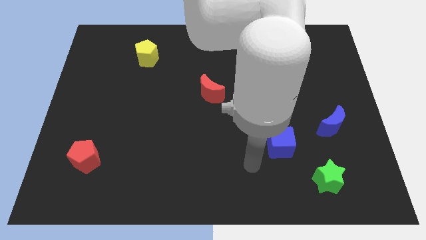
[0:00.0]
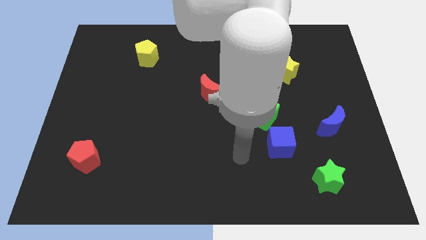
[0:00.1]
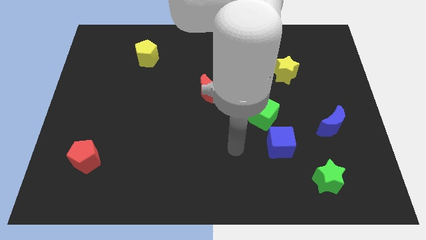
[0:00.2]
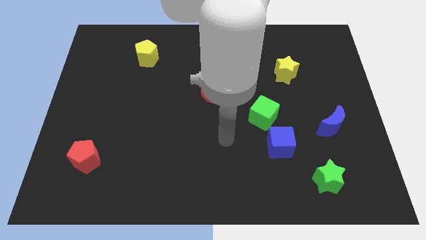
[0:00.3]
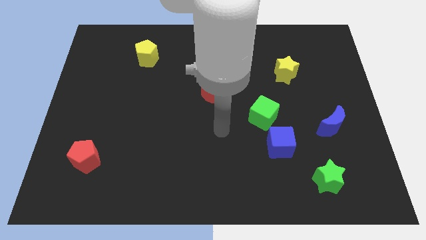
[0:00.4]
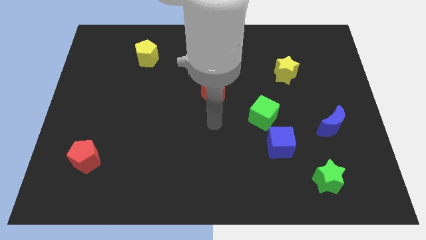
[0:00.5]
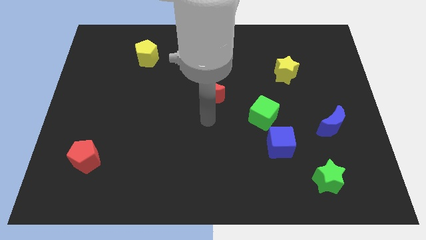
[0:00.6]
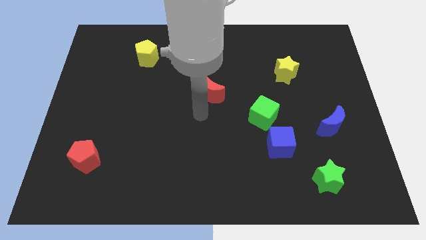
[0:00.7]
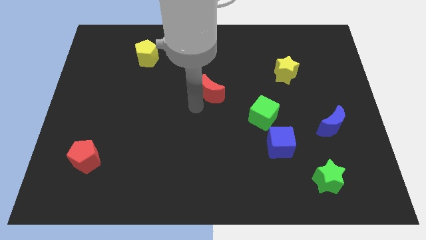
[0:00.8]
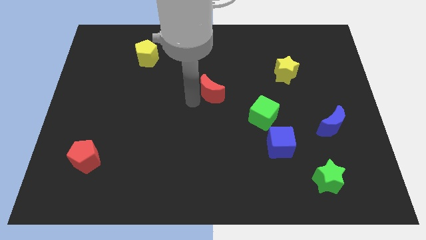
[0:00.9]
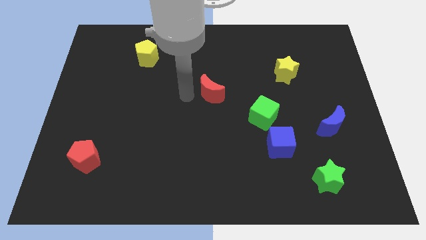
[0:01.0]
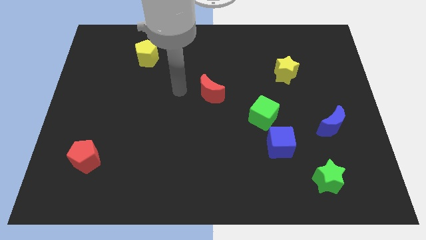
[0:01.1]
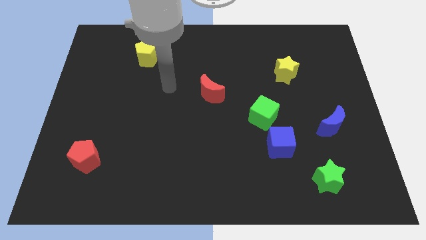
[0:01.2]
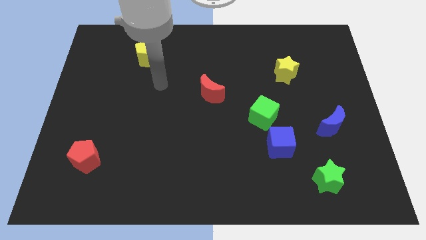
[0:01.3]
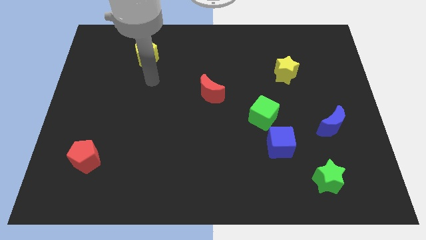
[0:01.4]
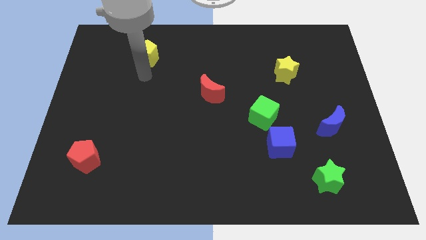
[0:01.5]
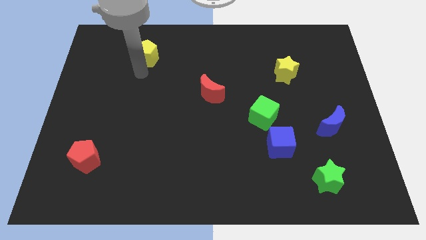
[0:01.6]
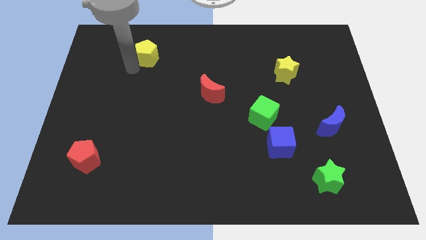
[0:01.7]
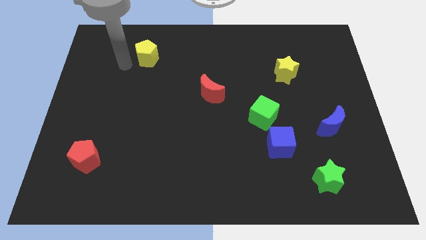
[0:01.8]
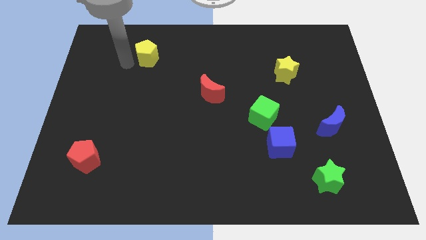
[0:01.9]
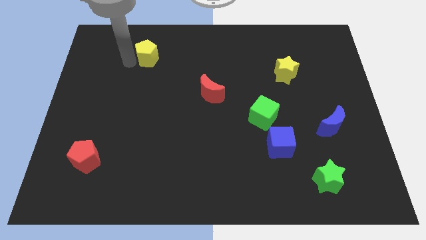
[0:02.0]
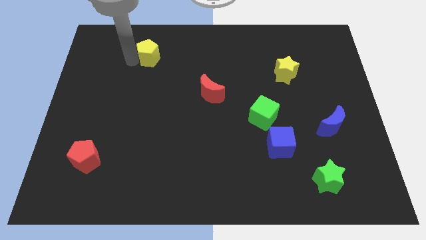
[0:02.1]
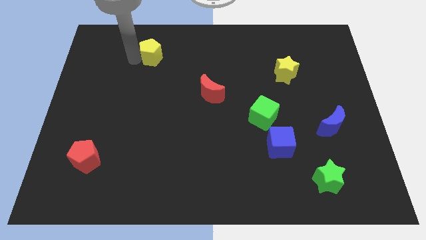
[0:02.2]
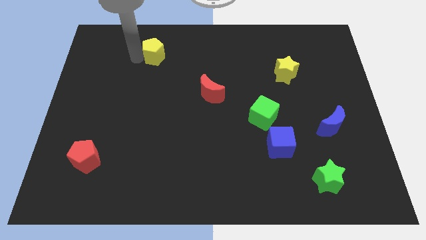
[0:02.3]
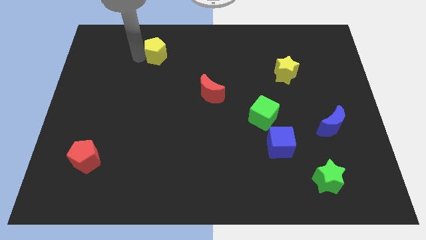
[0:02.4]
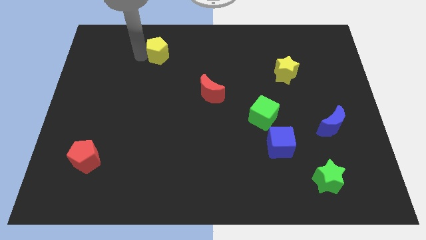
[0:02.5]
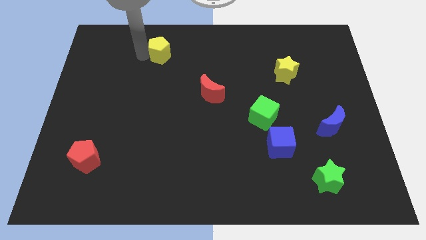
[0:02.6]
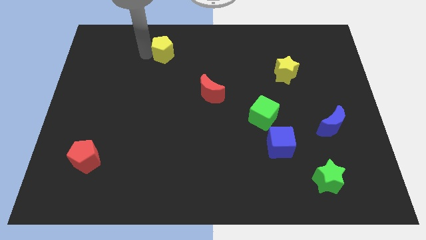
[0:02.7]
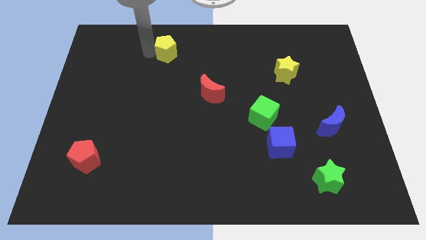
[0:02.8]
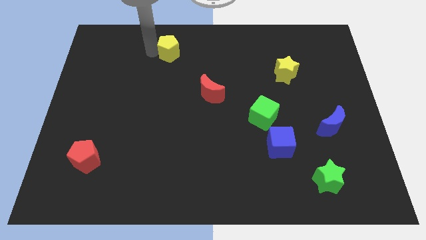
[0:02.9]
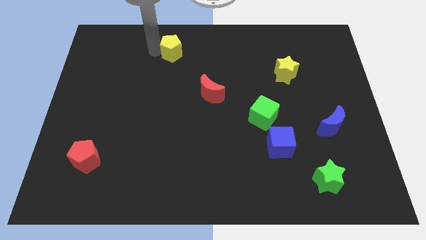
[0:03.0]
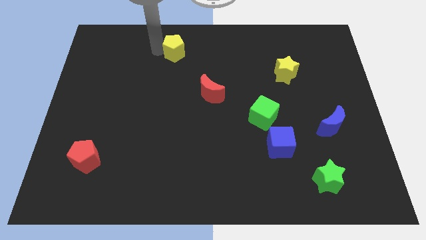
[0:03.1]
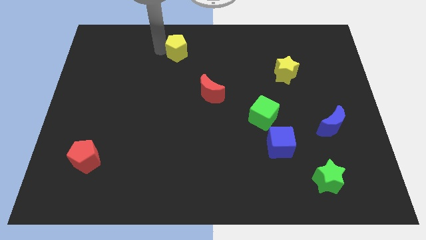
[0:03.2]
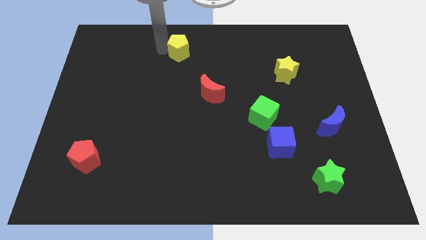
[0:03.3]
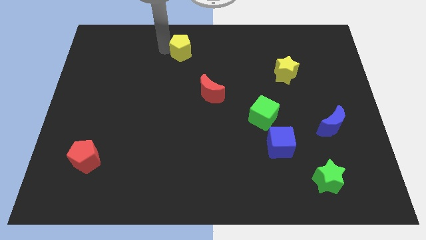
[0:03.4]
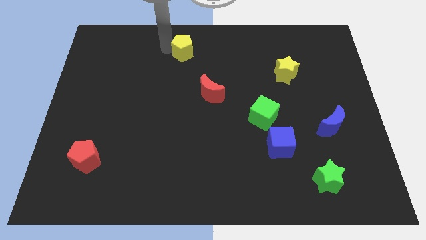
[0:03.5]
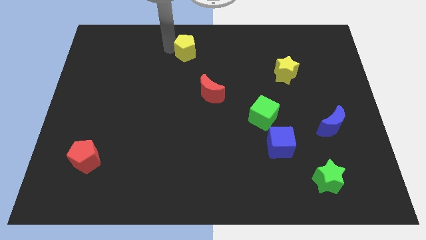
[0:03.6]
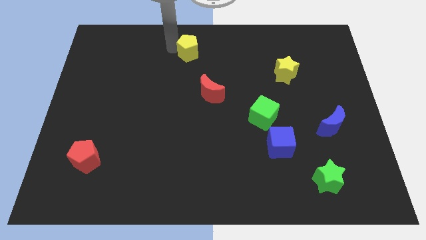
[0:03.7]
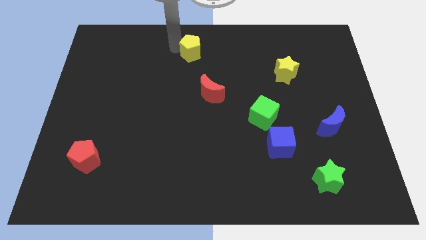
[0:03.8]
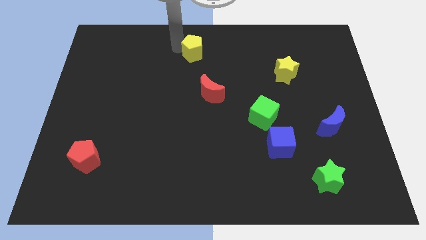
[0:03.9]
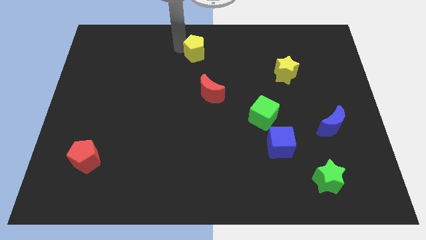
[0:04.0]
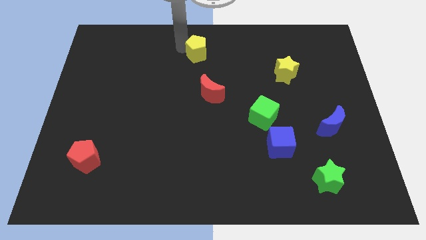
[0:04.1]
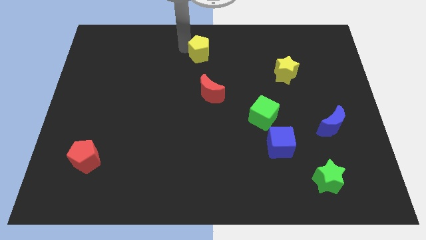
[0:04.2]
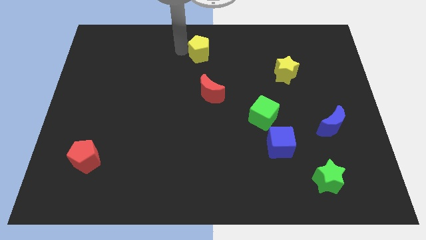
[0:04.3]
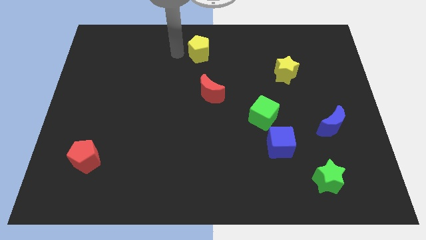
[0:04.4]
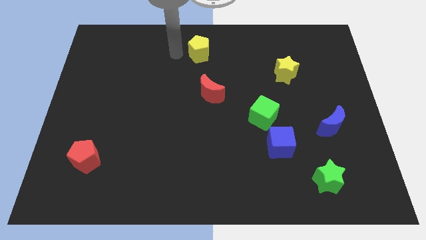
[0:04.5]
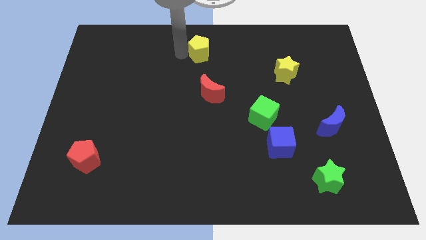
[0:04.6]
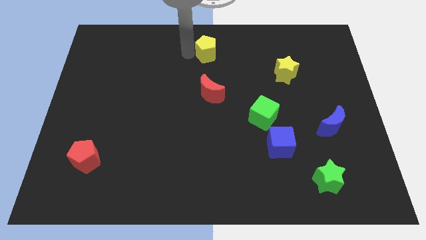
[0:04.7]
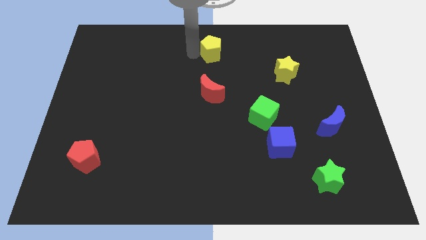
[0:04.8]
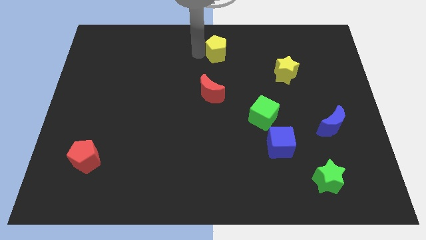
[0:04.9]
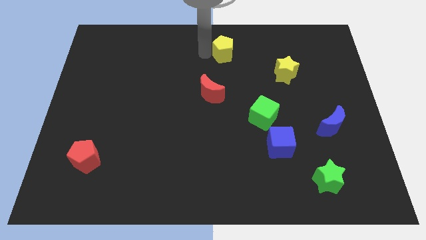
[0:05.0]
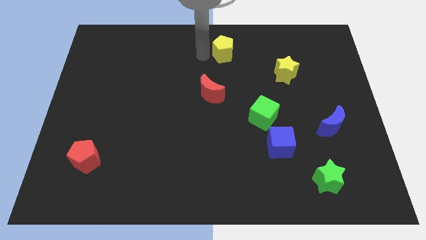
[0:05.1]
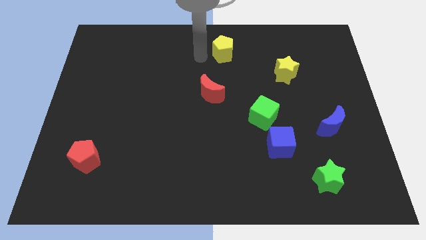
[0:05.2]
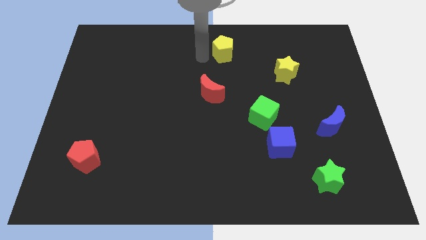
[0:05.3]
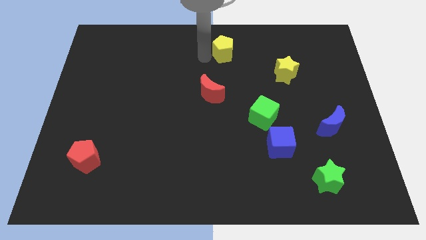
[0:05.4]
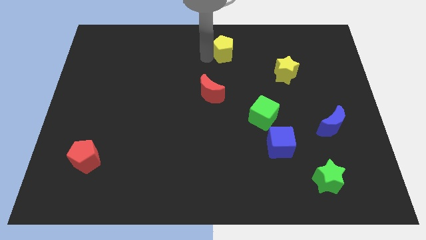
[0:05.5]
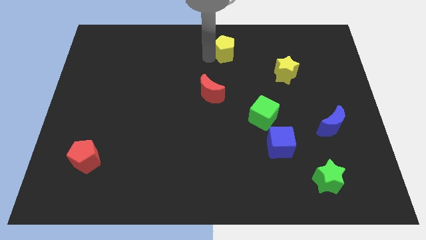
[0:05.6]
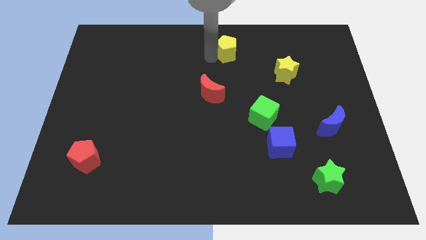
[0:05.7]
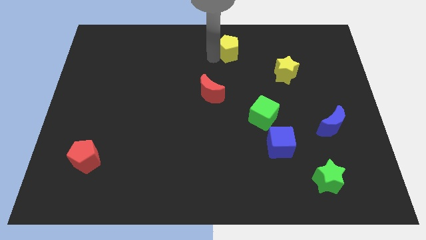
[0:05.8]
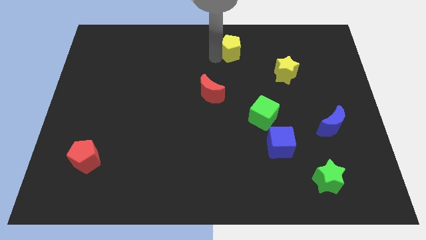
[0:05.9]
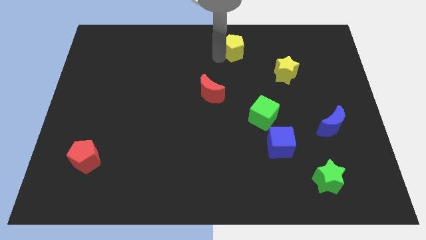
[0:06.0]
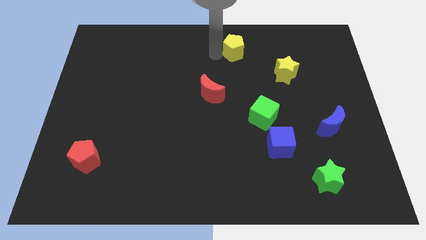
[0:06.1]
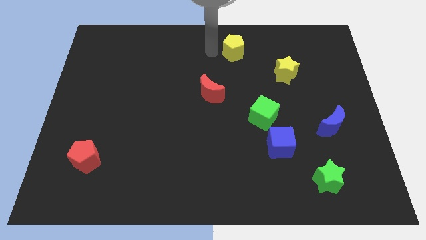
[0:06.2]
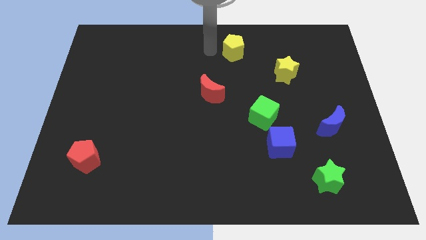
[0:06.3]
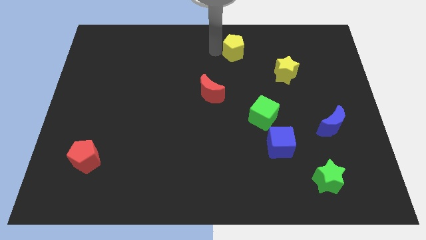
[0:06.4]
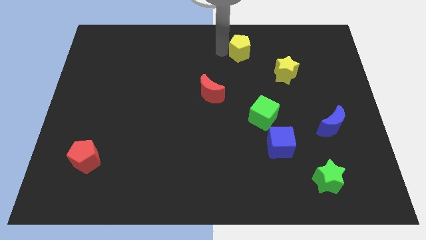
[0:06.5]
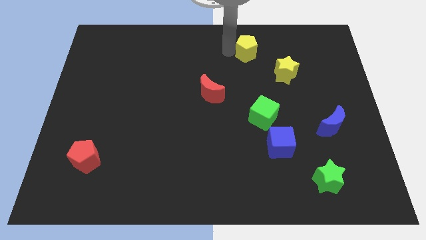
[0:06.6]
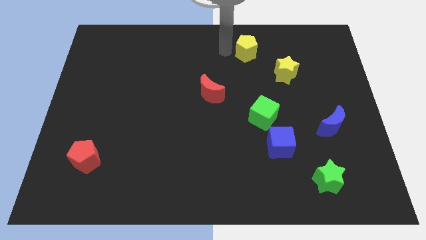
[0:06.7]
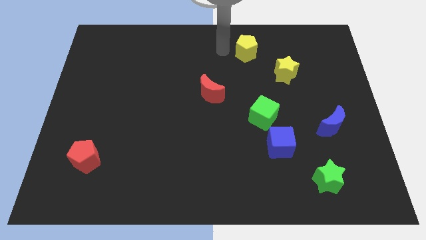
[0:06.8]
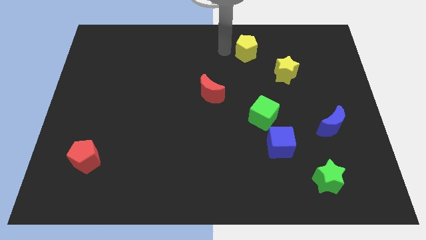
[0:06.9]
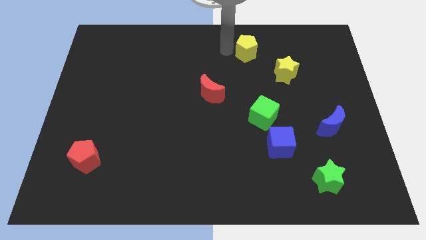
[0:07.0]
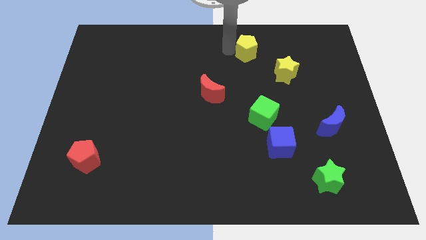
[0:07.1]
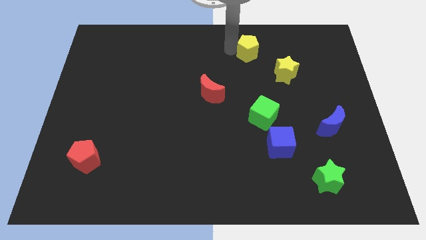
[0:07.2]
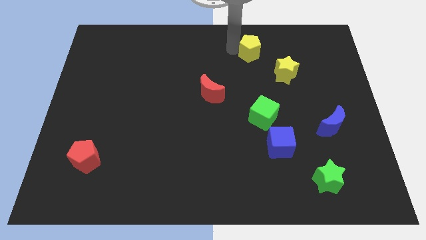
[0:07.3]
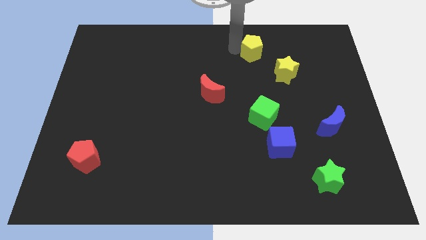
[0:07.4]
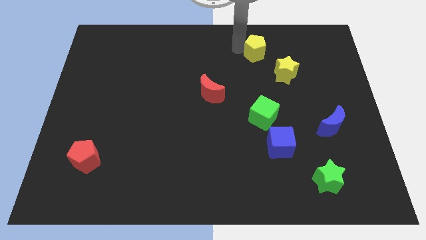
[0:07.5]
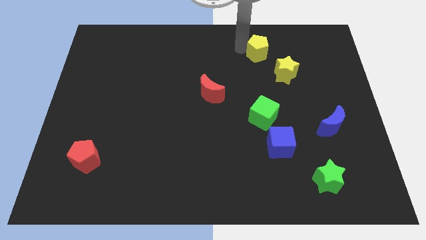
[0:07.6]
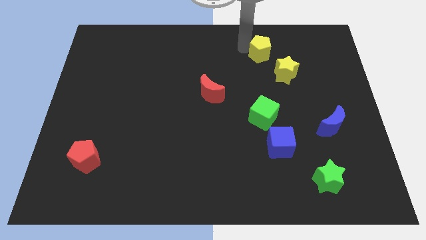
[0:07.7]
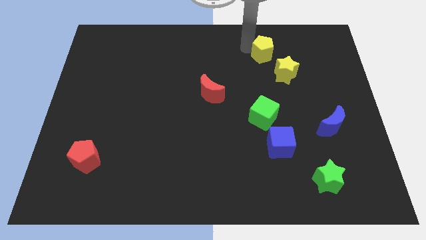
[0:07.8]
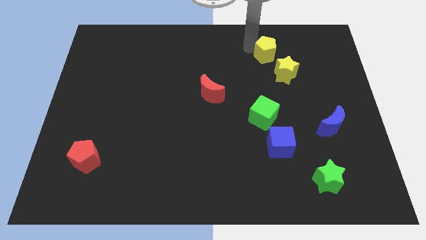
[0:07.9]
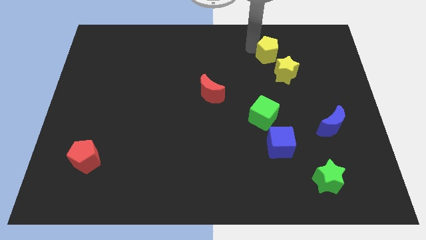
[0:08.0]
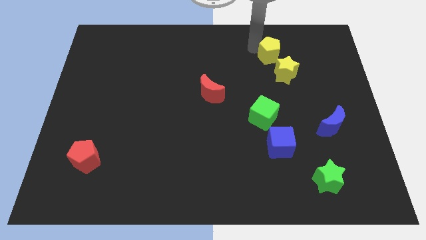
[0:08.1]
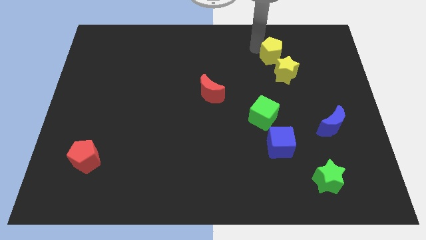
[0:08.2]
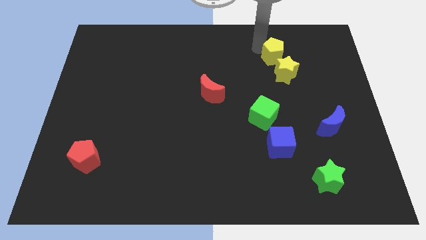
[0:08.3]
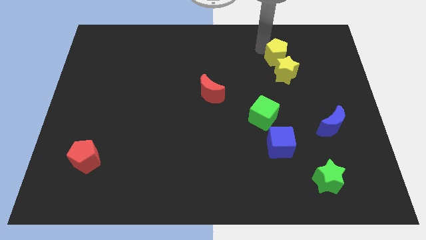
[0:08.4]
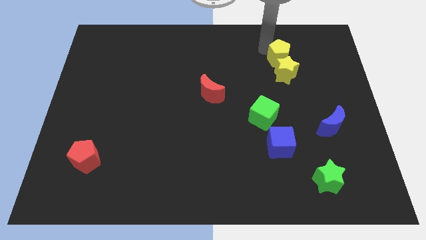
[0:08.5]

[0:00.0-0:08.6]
move the yellow pentagon to the top right of the yellow star
